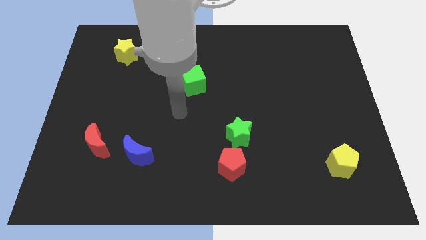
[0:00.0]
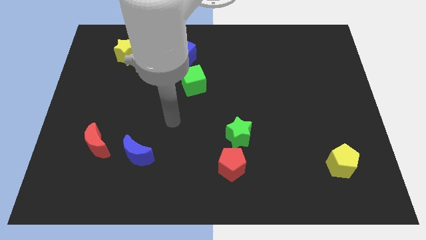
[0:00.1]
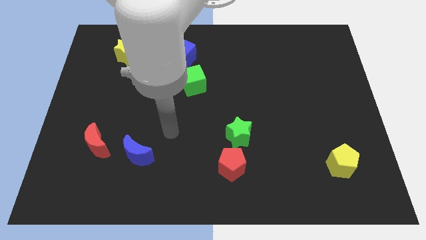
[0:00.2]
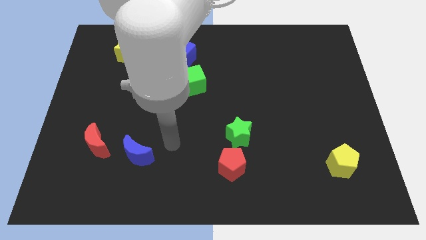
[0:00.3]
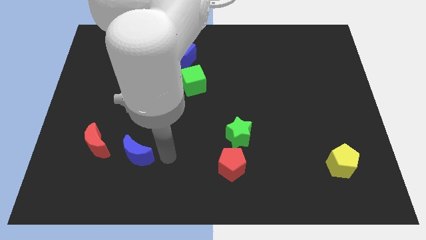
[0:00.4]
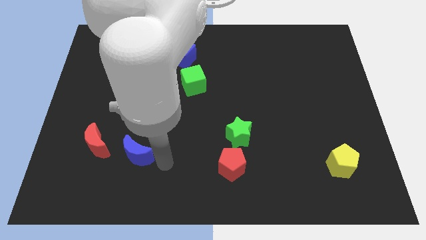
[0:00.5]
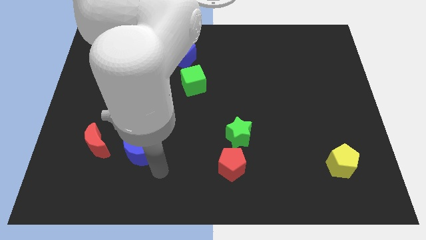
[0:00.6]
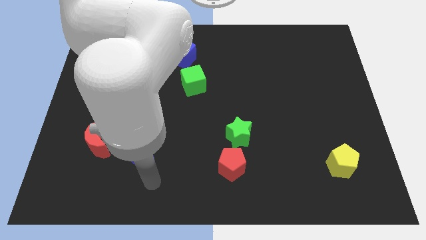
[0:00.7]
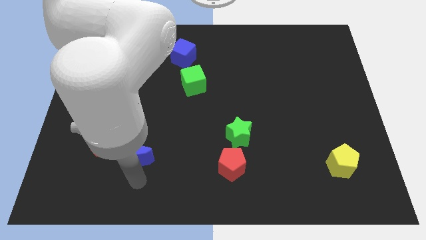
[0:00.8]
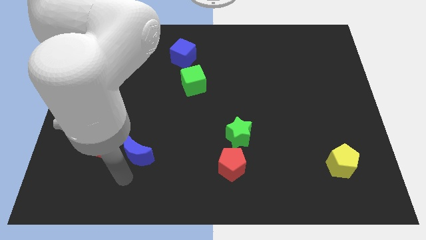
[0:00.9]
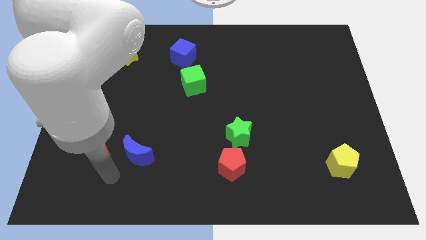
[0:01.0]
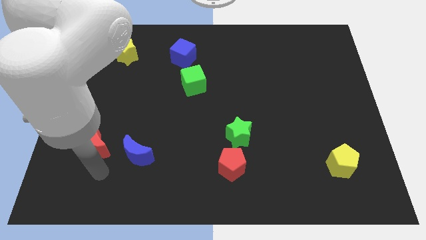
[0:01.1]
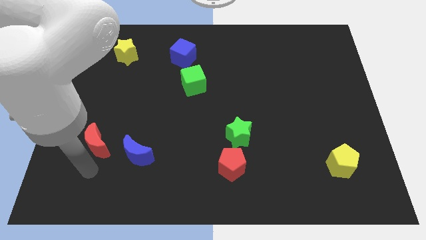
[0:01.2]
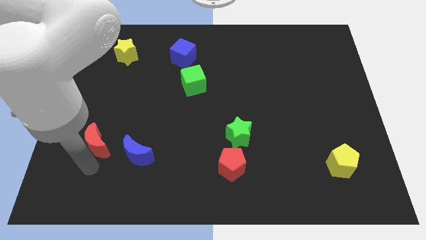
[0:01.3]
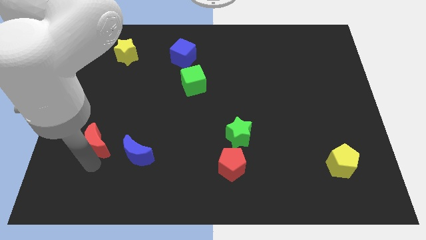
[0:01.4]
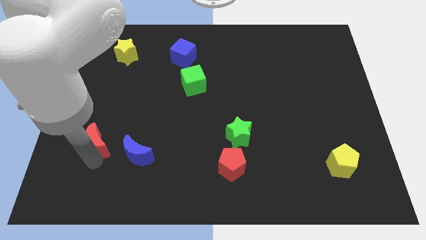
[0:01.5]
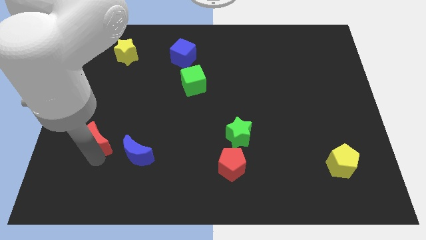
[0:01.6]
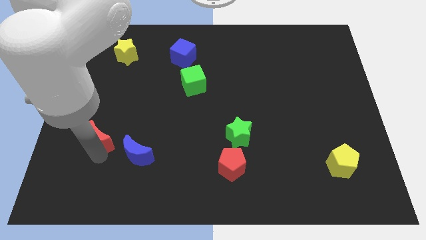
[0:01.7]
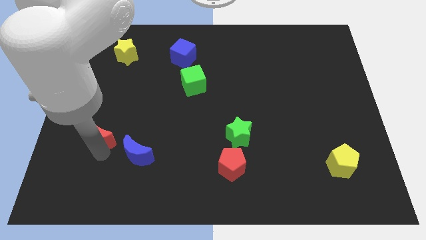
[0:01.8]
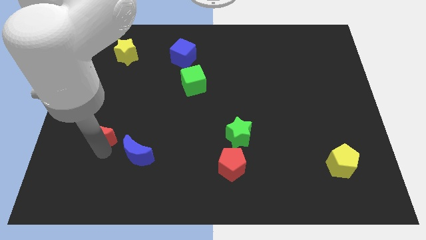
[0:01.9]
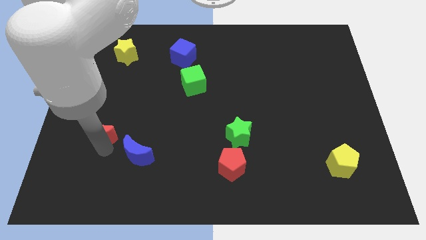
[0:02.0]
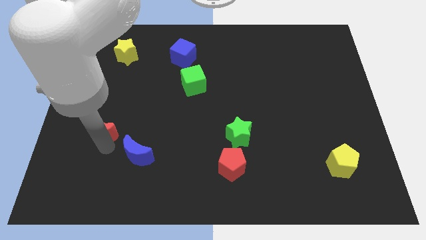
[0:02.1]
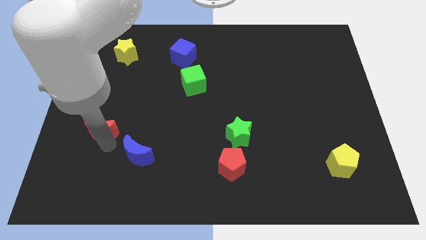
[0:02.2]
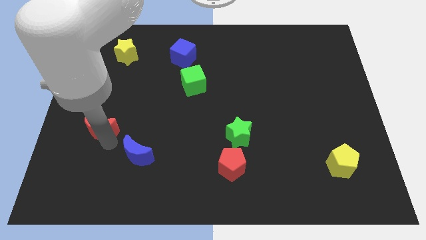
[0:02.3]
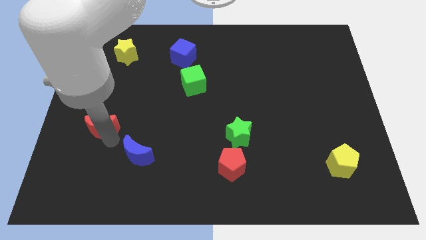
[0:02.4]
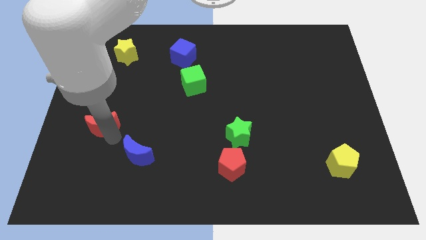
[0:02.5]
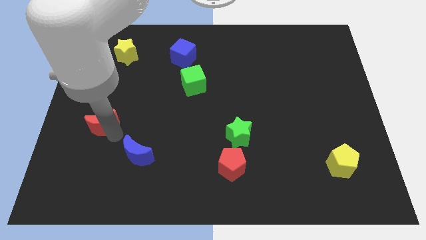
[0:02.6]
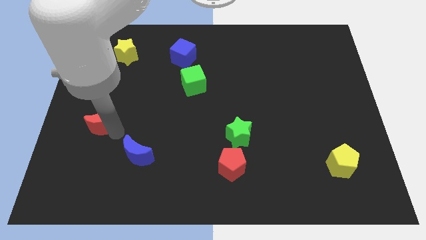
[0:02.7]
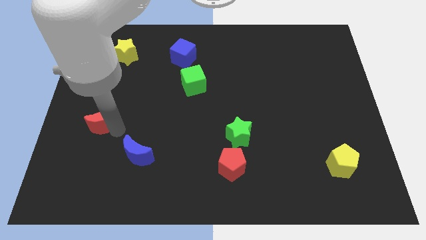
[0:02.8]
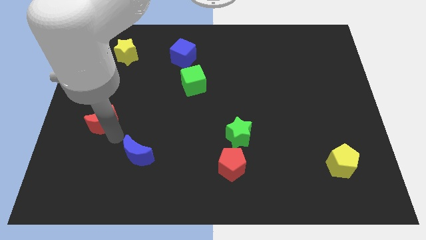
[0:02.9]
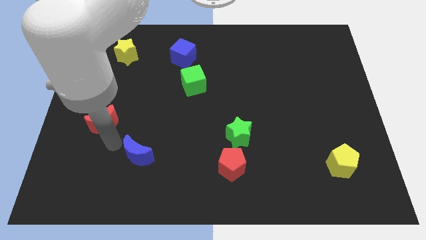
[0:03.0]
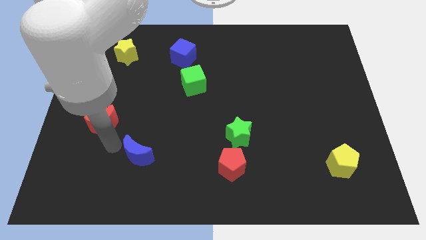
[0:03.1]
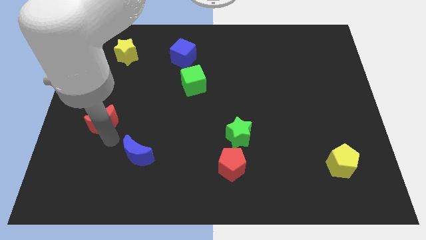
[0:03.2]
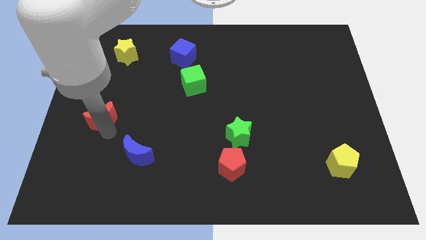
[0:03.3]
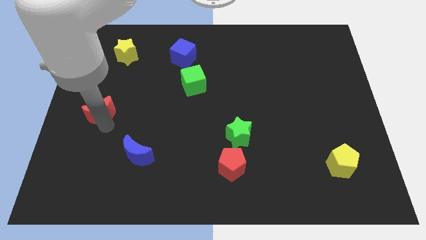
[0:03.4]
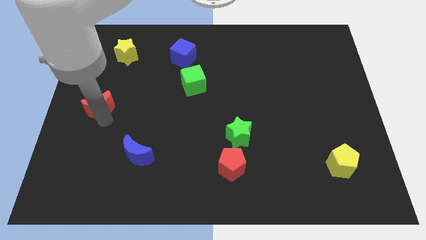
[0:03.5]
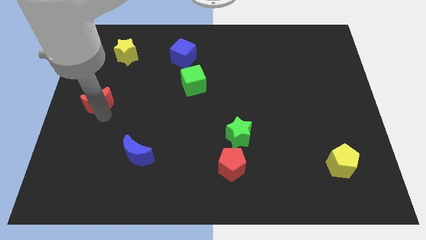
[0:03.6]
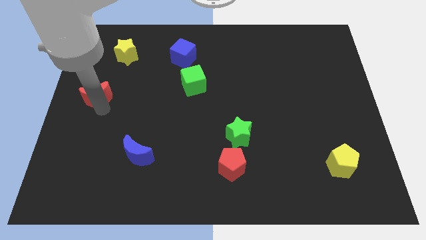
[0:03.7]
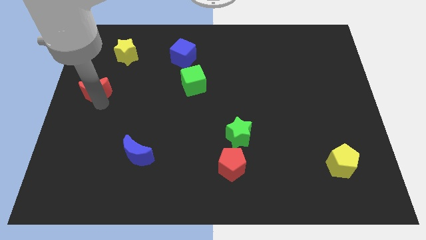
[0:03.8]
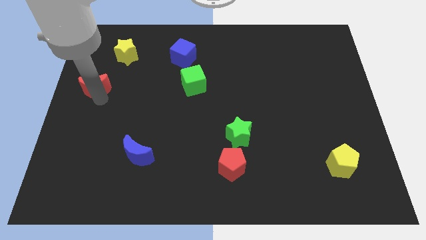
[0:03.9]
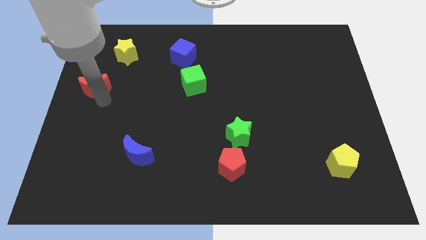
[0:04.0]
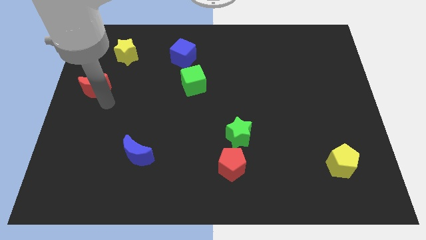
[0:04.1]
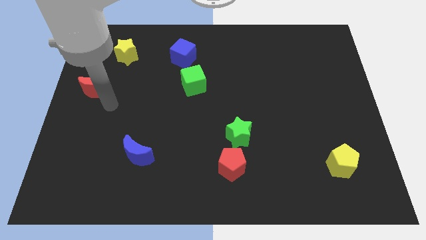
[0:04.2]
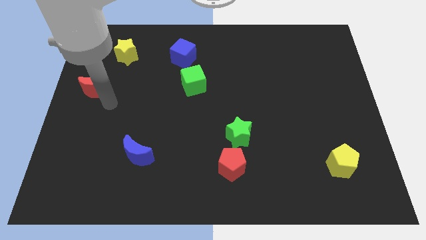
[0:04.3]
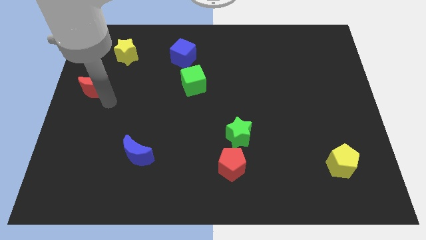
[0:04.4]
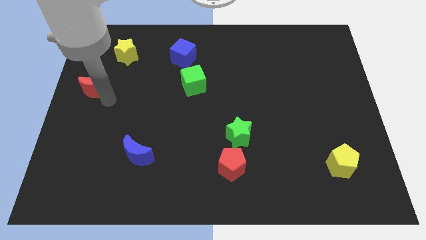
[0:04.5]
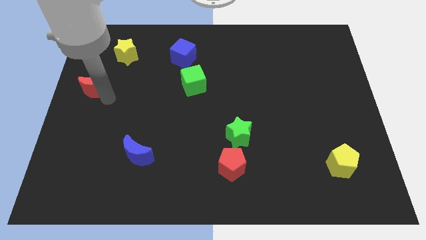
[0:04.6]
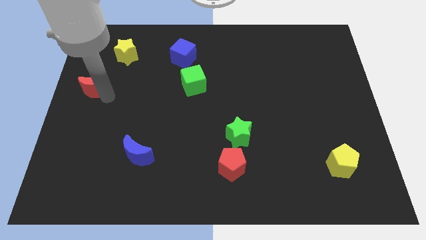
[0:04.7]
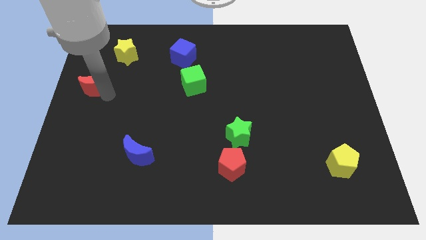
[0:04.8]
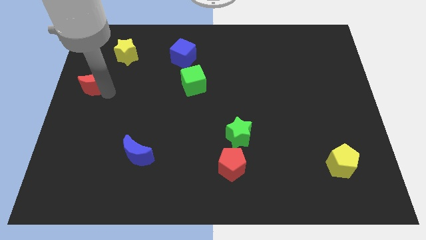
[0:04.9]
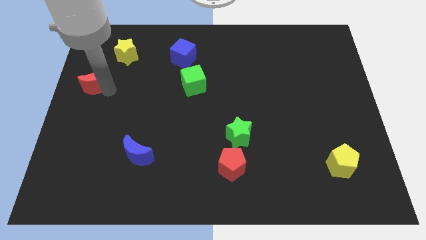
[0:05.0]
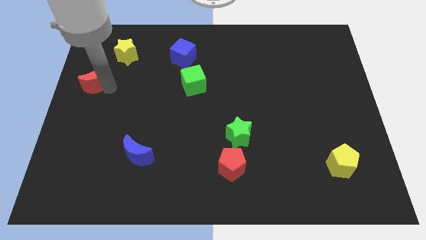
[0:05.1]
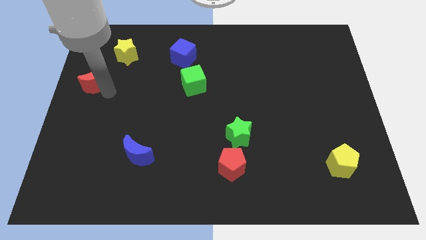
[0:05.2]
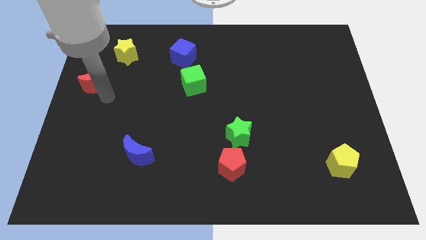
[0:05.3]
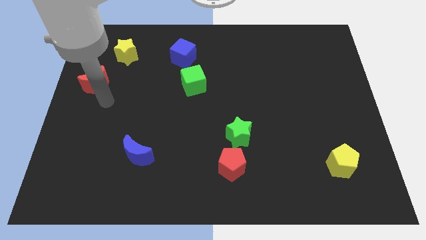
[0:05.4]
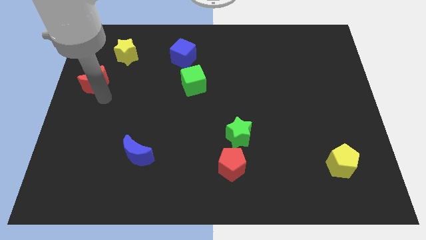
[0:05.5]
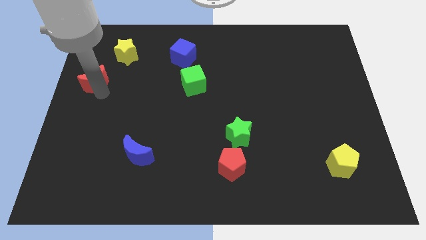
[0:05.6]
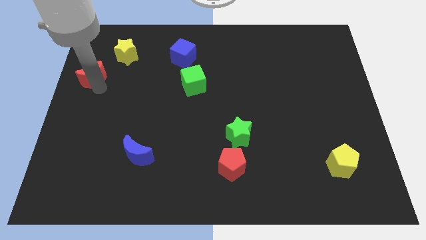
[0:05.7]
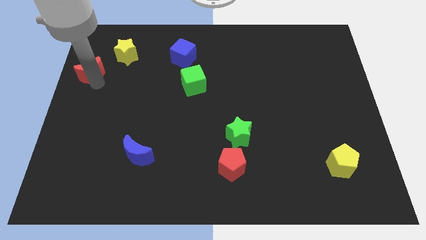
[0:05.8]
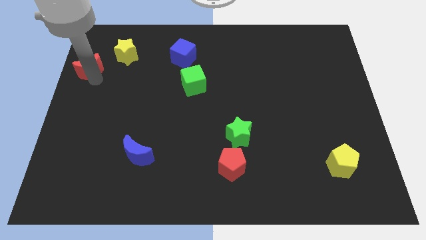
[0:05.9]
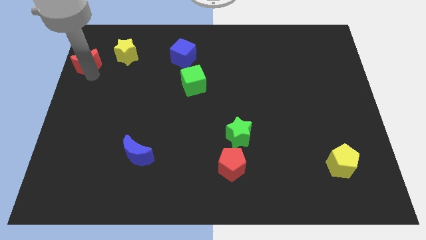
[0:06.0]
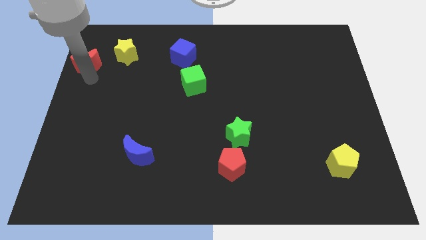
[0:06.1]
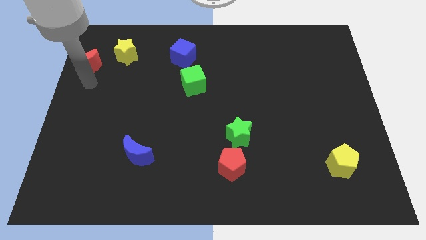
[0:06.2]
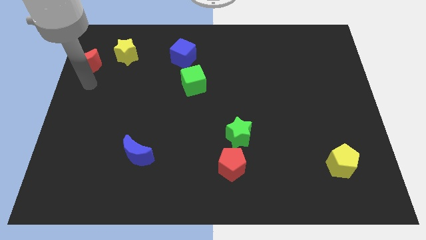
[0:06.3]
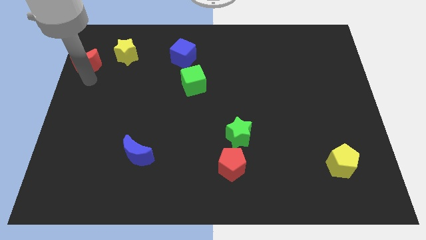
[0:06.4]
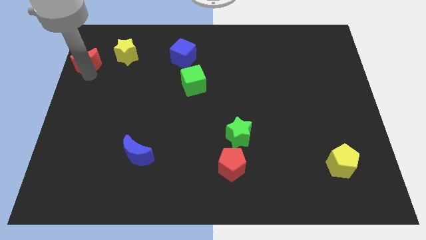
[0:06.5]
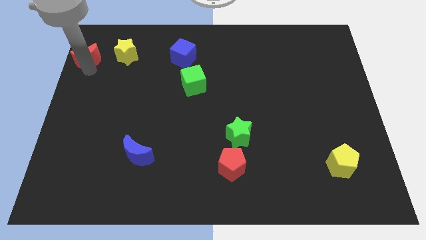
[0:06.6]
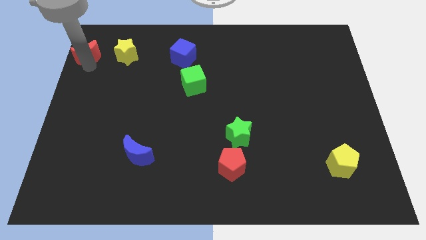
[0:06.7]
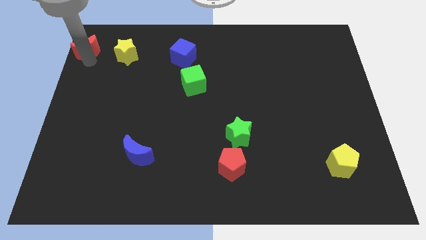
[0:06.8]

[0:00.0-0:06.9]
put the red moon to the upper left corner
